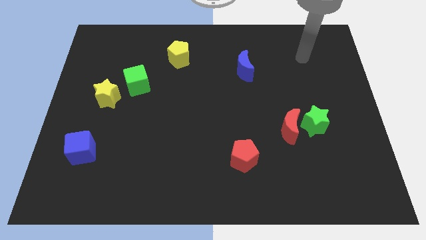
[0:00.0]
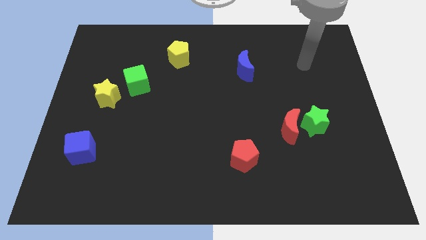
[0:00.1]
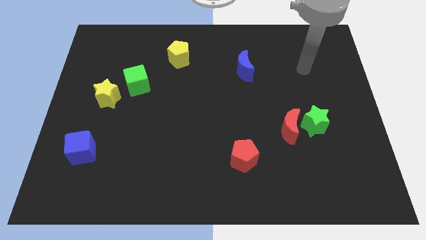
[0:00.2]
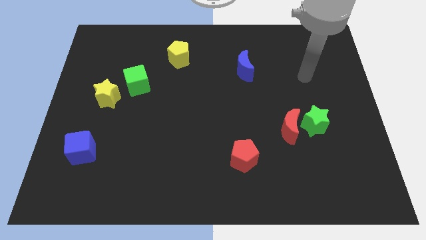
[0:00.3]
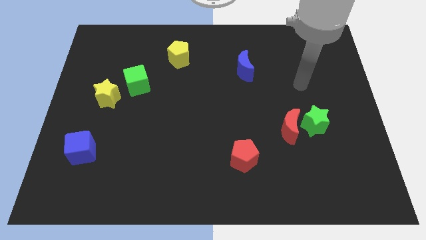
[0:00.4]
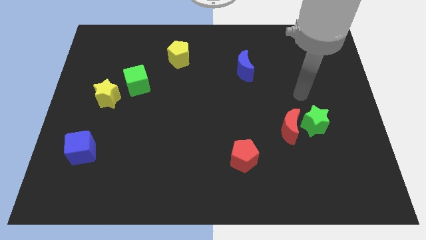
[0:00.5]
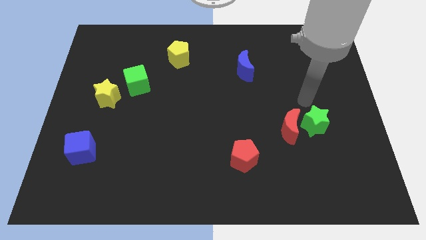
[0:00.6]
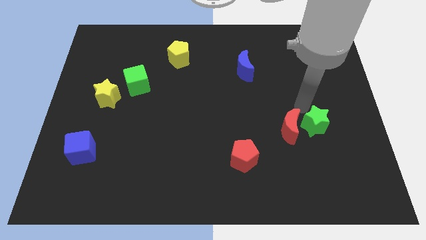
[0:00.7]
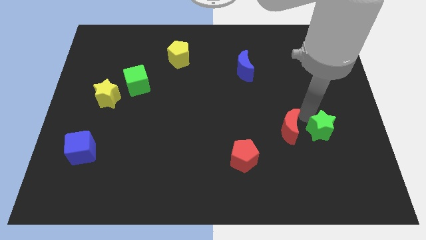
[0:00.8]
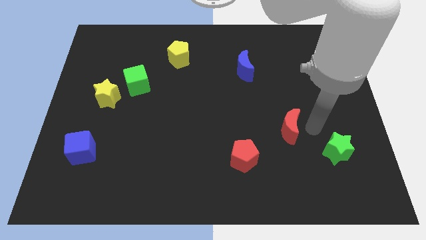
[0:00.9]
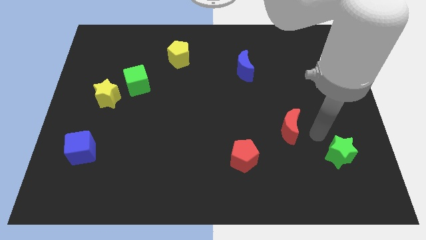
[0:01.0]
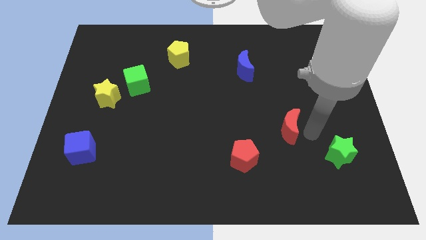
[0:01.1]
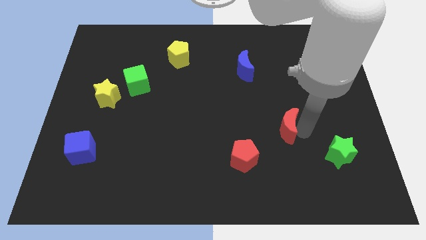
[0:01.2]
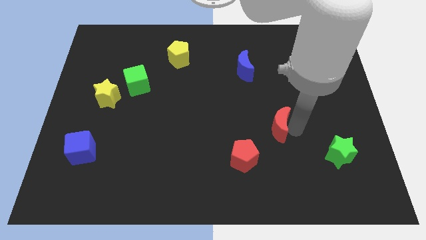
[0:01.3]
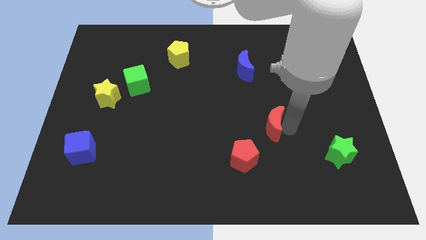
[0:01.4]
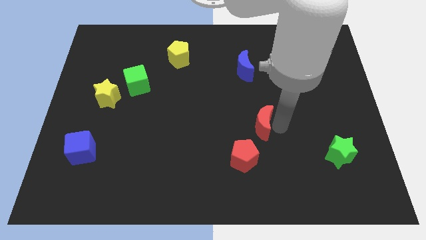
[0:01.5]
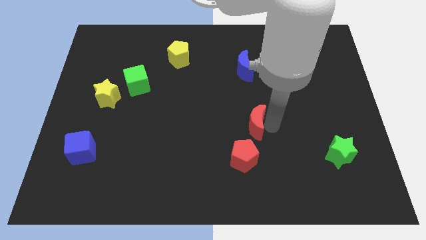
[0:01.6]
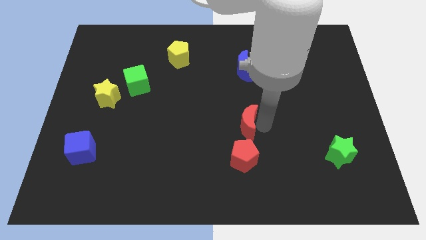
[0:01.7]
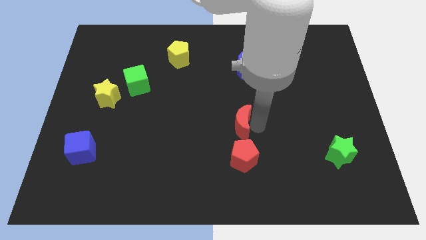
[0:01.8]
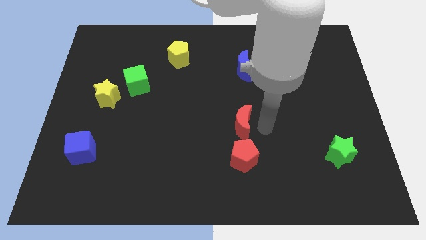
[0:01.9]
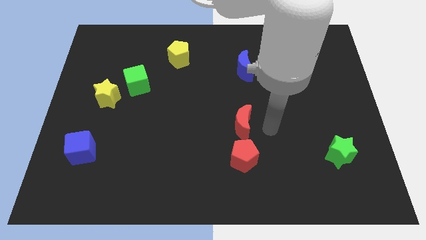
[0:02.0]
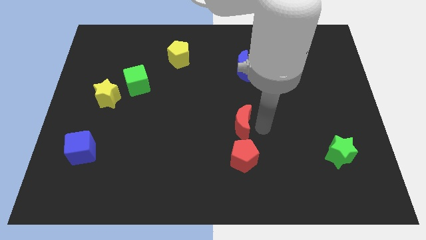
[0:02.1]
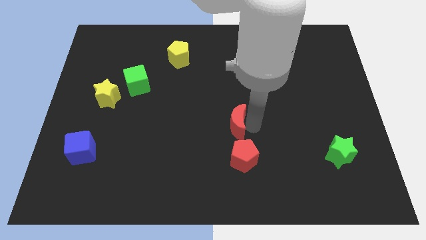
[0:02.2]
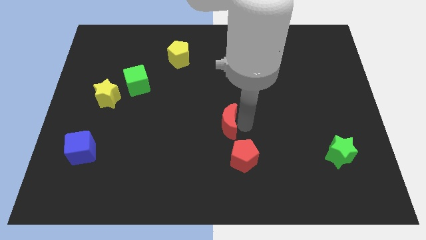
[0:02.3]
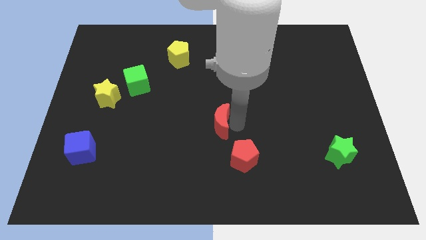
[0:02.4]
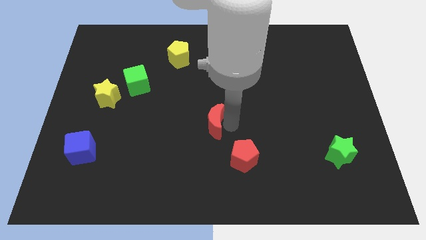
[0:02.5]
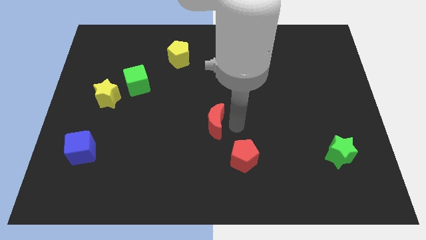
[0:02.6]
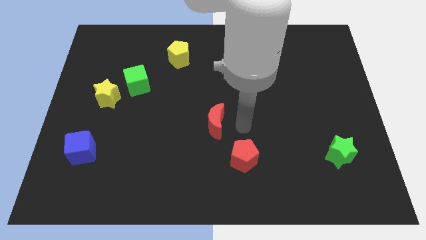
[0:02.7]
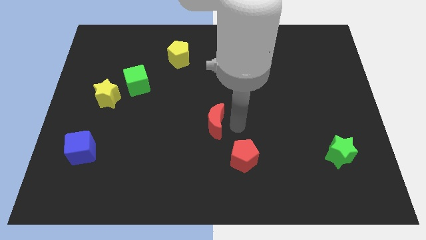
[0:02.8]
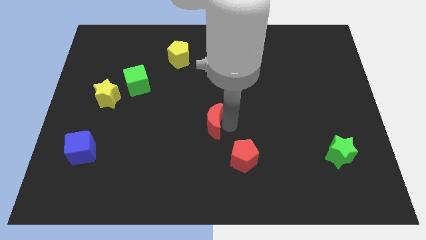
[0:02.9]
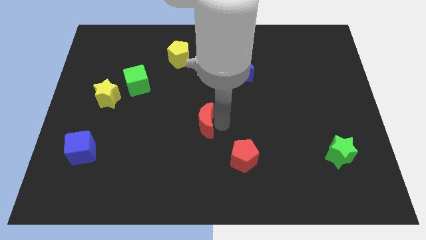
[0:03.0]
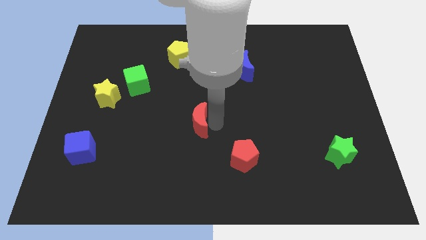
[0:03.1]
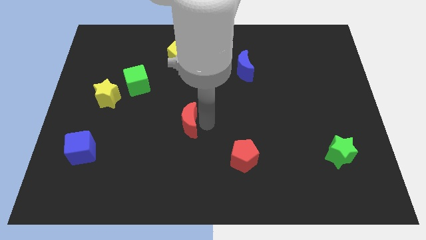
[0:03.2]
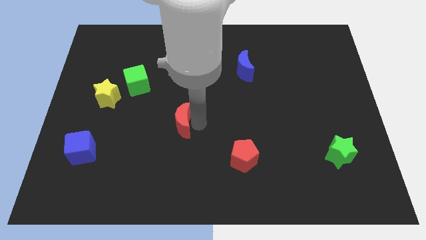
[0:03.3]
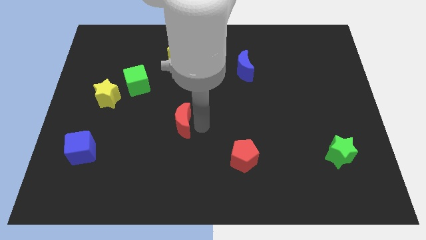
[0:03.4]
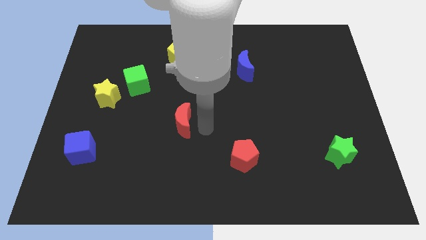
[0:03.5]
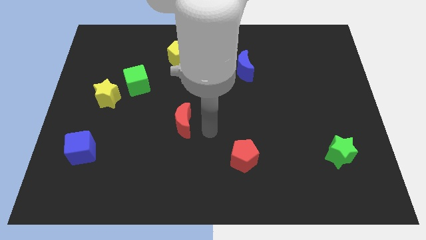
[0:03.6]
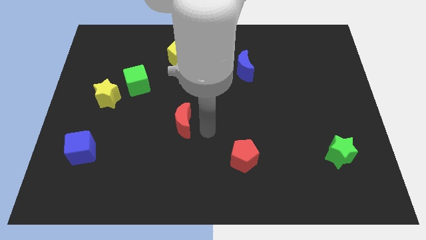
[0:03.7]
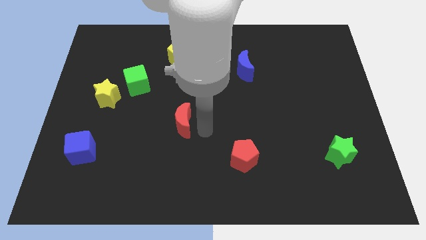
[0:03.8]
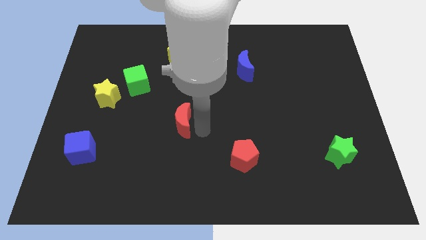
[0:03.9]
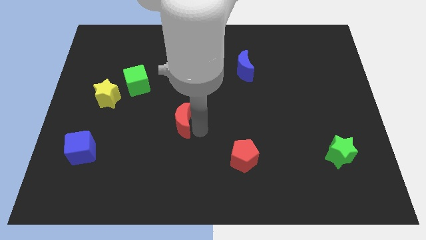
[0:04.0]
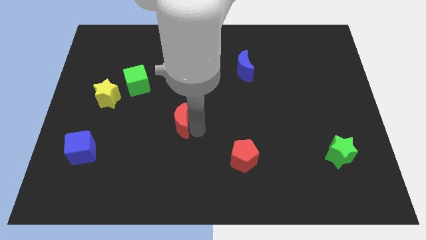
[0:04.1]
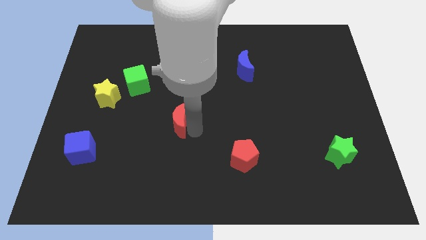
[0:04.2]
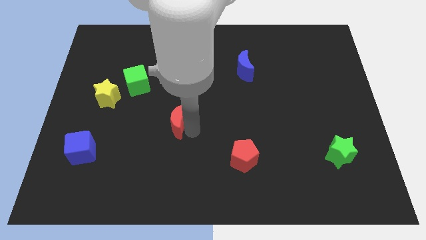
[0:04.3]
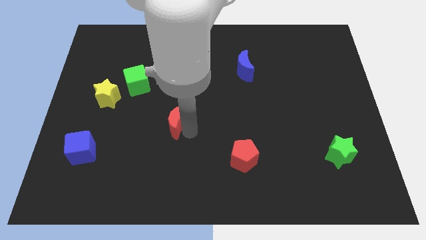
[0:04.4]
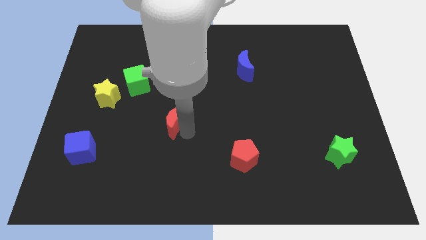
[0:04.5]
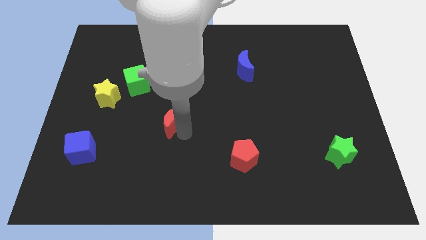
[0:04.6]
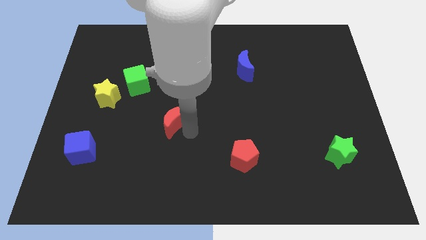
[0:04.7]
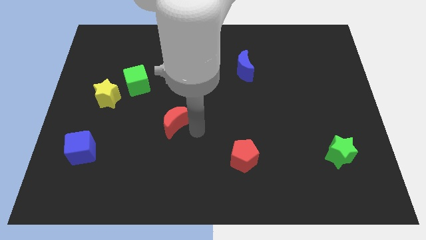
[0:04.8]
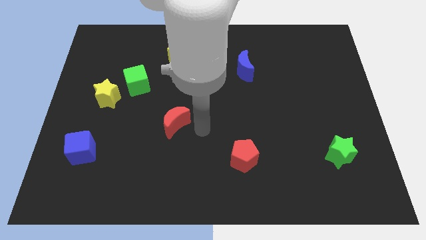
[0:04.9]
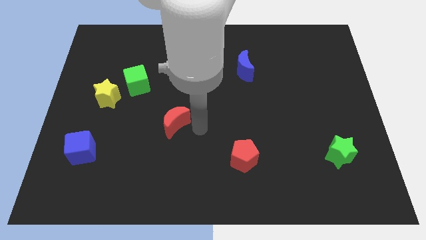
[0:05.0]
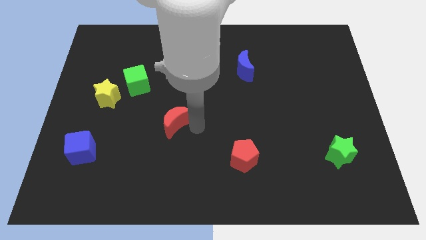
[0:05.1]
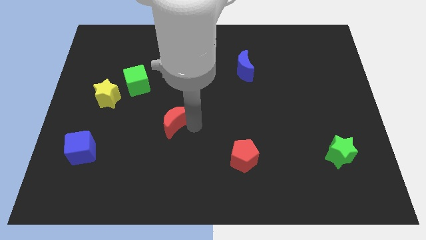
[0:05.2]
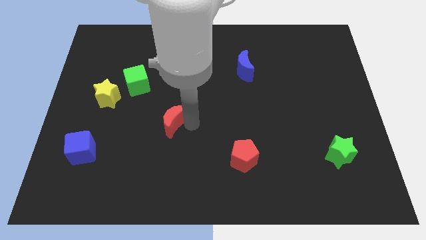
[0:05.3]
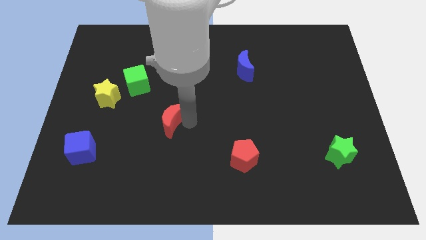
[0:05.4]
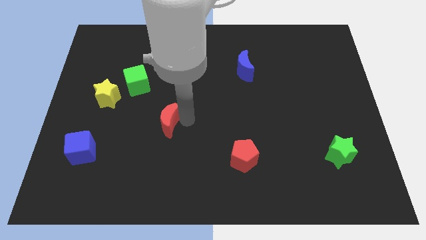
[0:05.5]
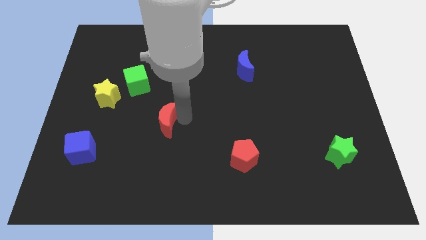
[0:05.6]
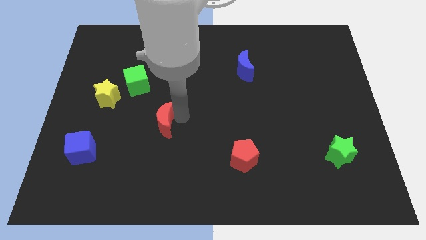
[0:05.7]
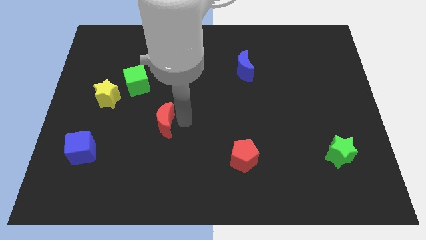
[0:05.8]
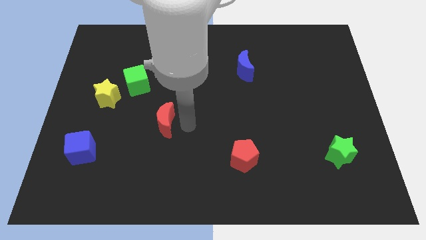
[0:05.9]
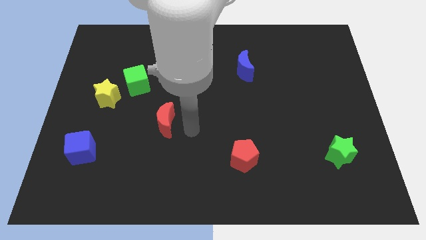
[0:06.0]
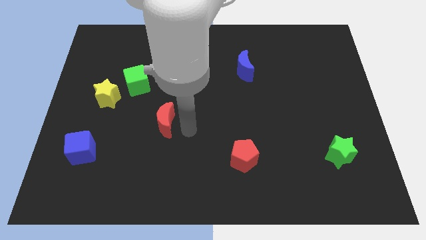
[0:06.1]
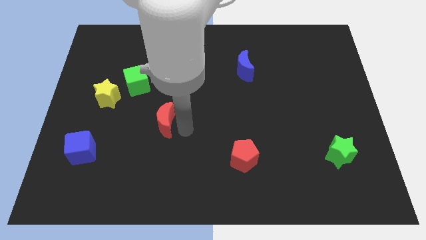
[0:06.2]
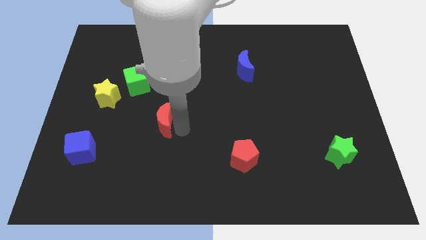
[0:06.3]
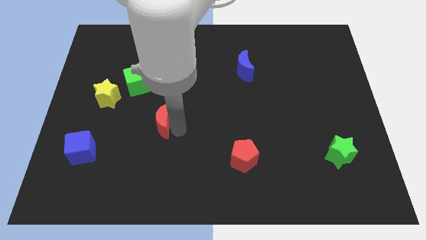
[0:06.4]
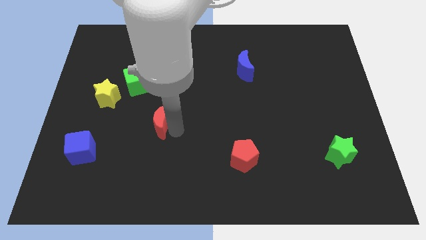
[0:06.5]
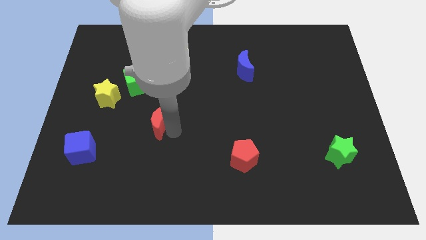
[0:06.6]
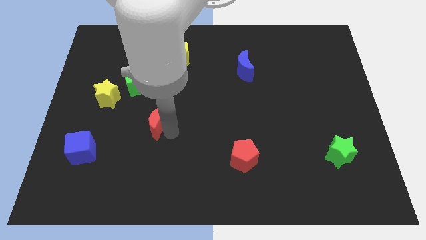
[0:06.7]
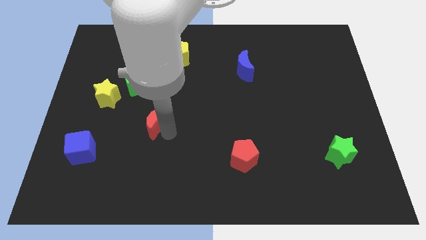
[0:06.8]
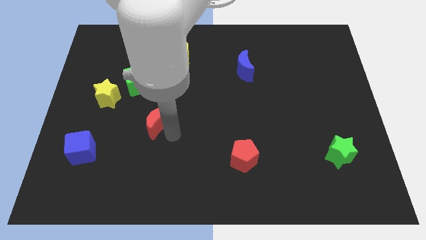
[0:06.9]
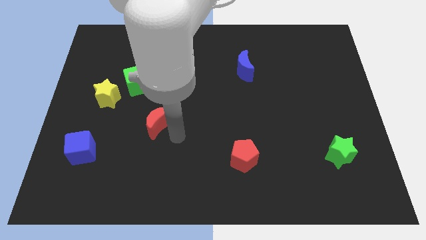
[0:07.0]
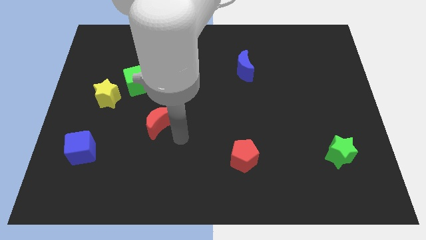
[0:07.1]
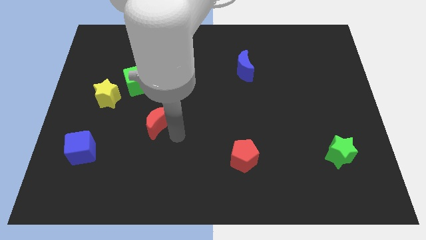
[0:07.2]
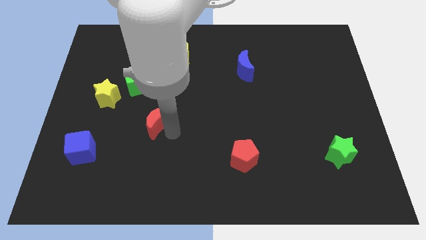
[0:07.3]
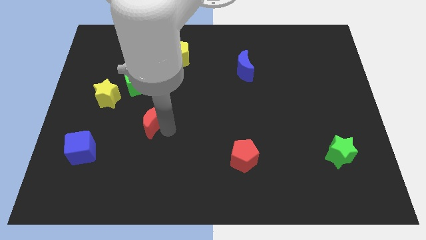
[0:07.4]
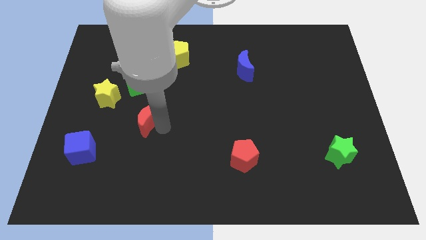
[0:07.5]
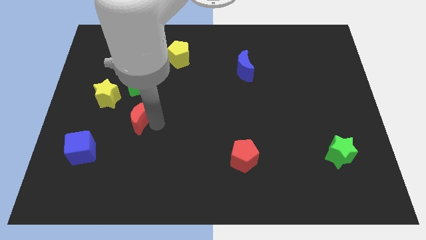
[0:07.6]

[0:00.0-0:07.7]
move the red moon to the bottom right side of the yellow star
